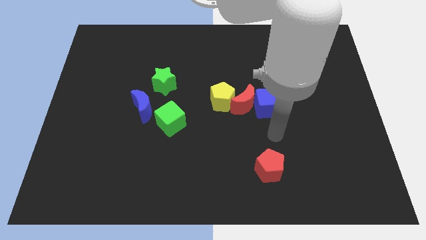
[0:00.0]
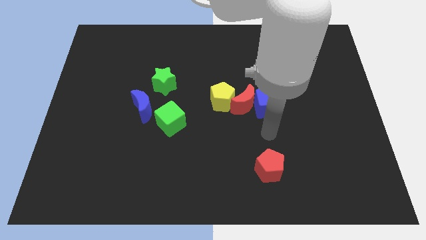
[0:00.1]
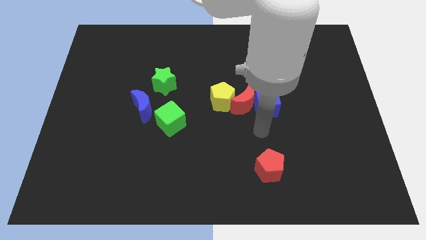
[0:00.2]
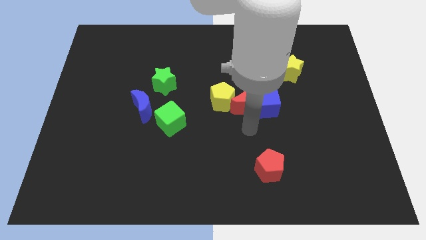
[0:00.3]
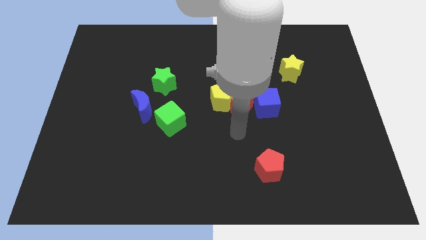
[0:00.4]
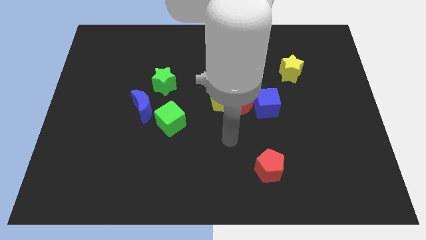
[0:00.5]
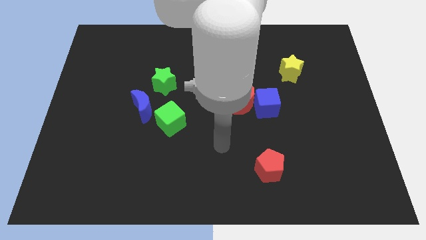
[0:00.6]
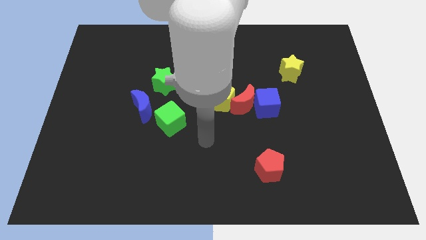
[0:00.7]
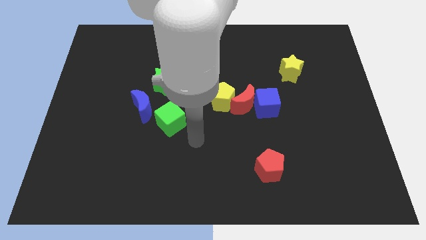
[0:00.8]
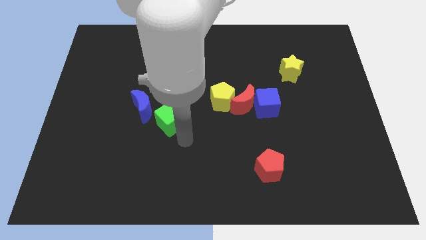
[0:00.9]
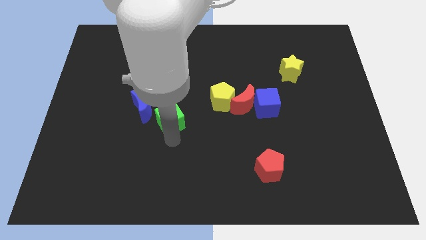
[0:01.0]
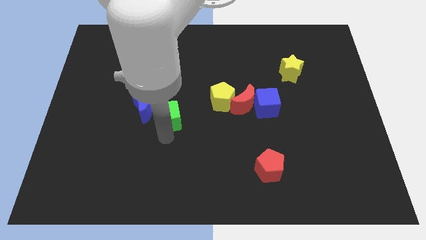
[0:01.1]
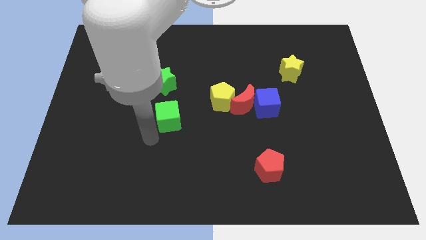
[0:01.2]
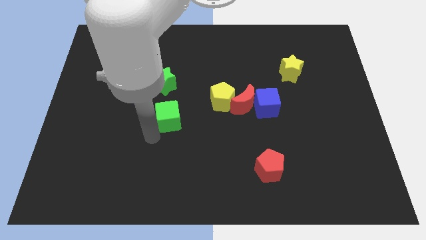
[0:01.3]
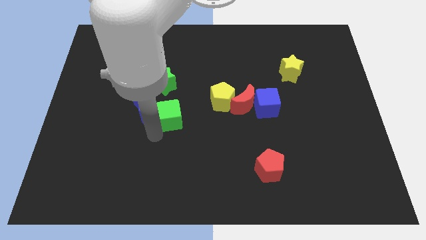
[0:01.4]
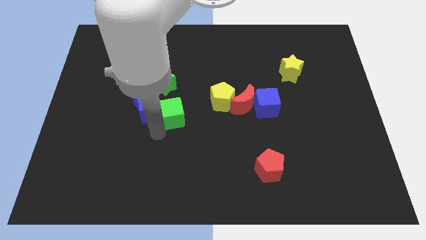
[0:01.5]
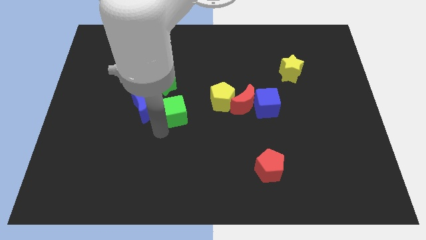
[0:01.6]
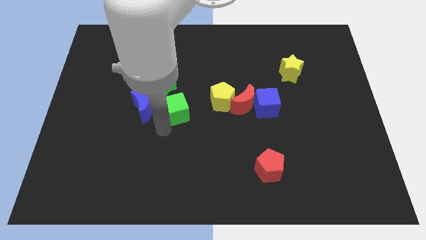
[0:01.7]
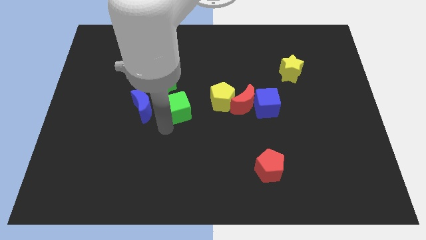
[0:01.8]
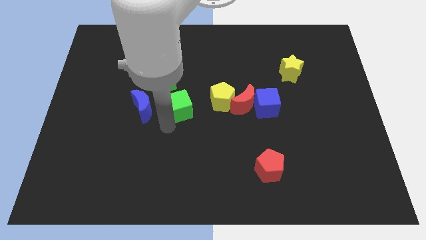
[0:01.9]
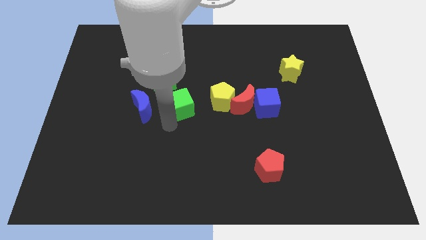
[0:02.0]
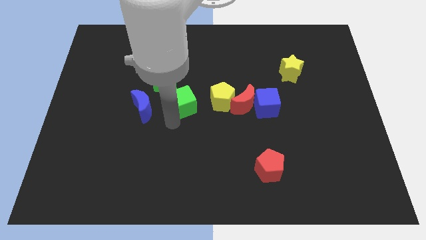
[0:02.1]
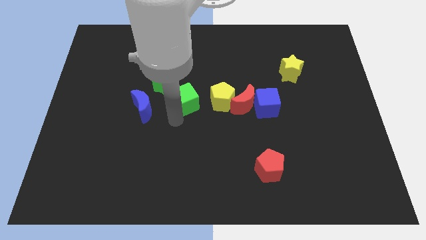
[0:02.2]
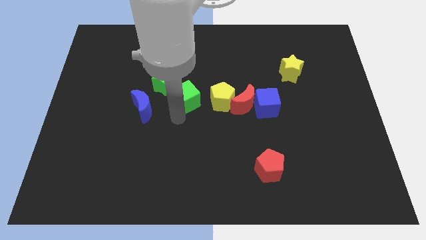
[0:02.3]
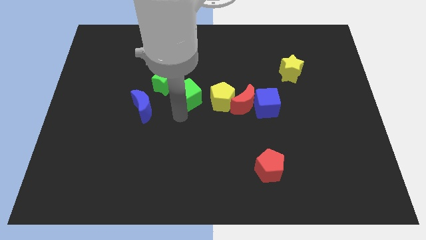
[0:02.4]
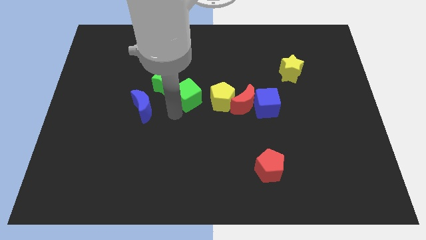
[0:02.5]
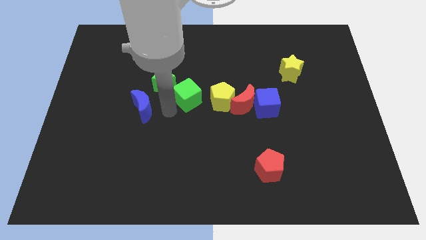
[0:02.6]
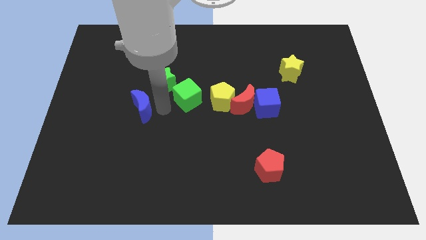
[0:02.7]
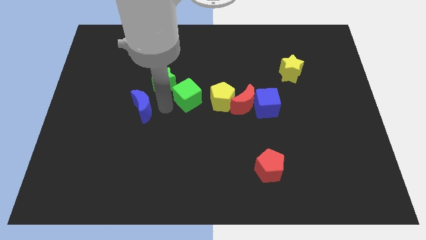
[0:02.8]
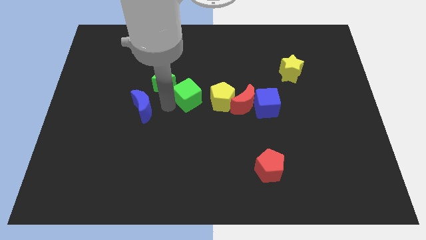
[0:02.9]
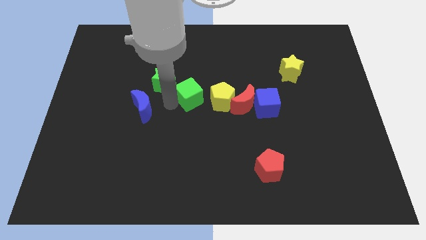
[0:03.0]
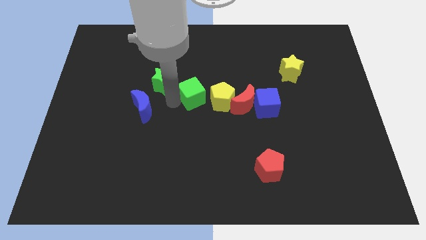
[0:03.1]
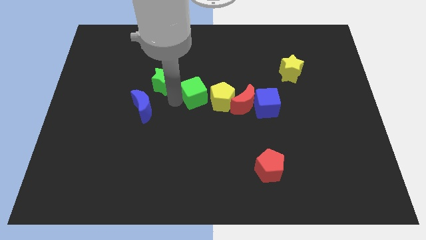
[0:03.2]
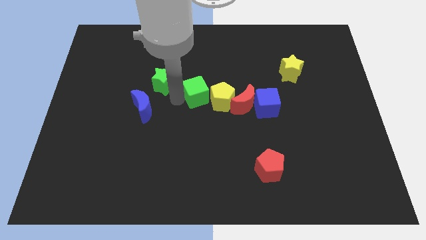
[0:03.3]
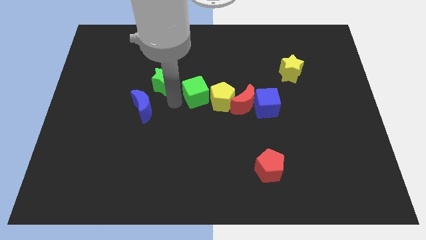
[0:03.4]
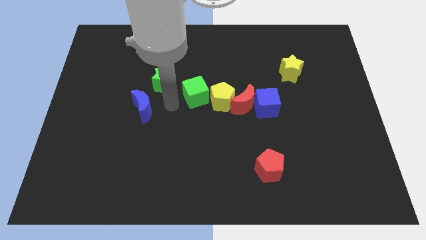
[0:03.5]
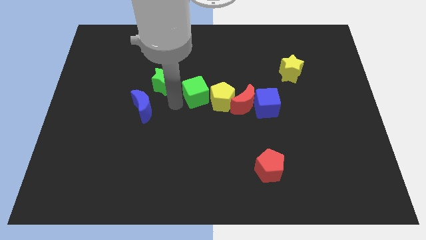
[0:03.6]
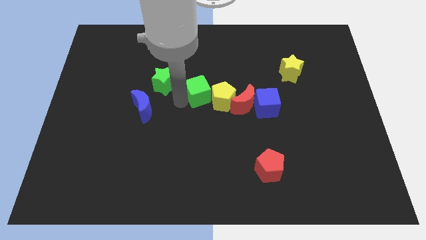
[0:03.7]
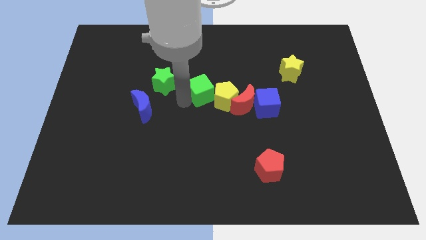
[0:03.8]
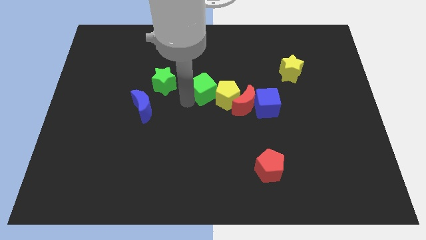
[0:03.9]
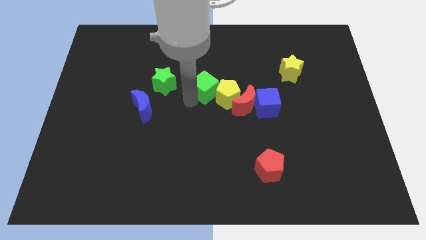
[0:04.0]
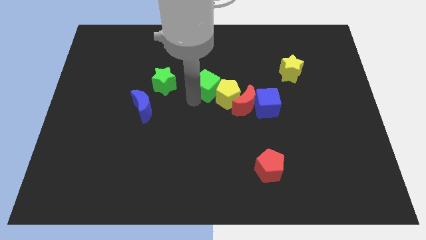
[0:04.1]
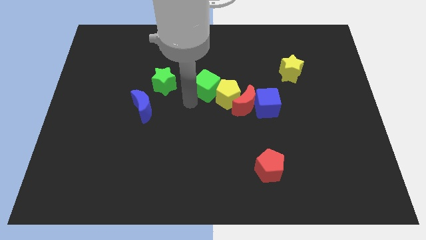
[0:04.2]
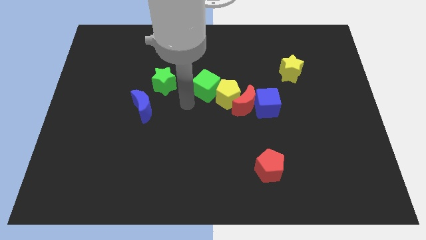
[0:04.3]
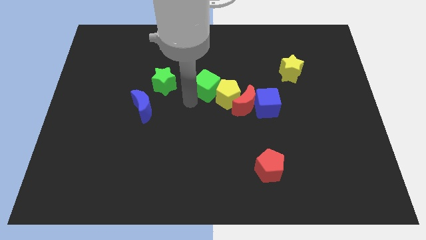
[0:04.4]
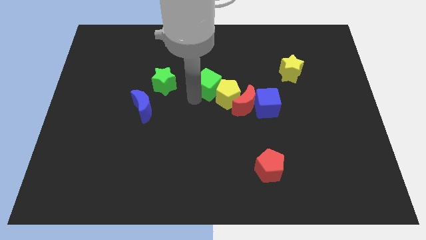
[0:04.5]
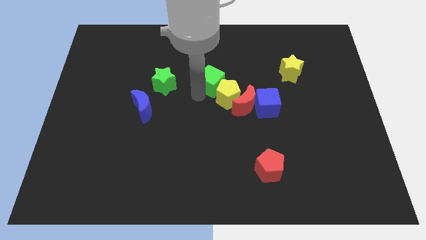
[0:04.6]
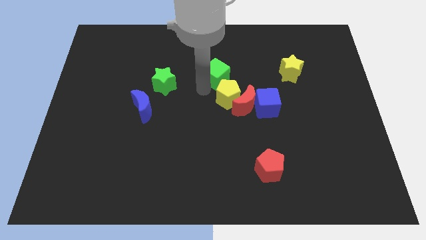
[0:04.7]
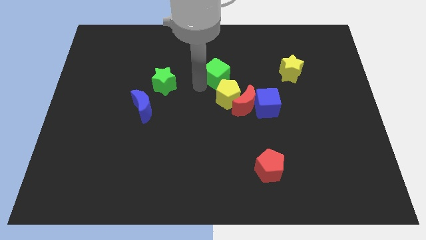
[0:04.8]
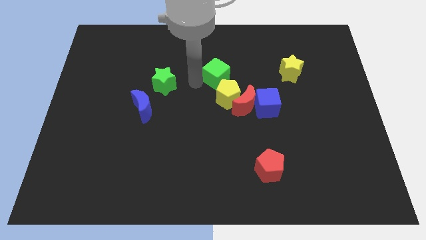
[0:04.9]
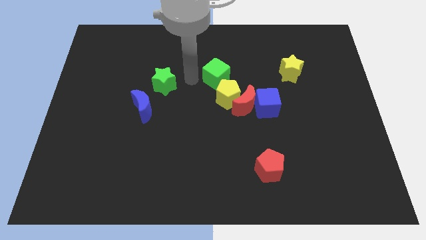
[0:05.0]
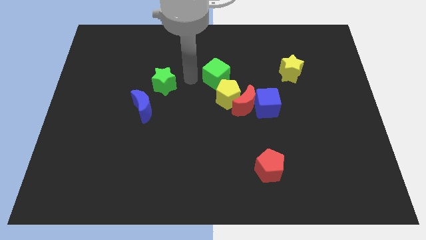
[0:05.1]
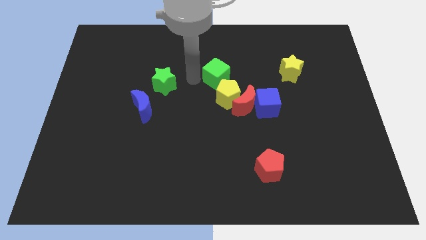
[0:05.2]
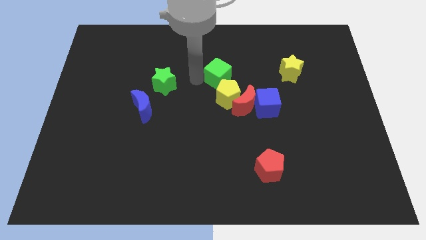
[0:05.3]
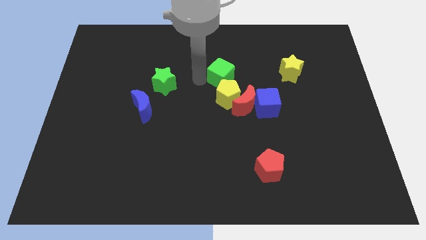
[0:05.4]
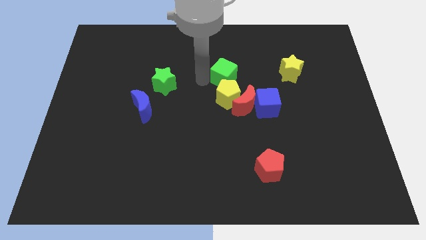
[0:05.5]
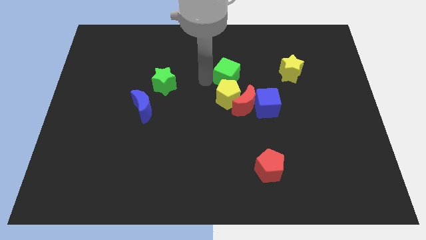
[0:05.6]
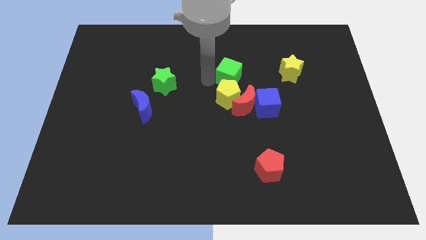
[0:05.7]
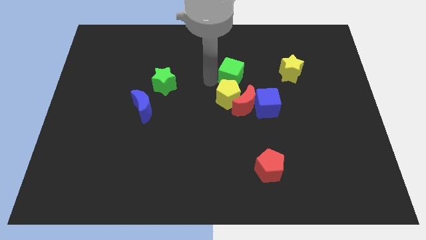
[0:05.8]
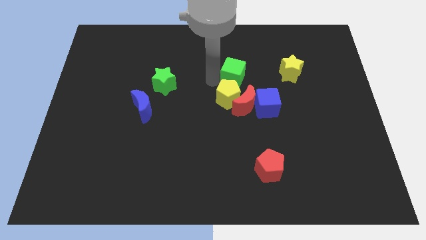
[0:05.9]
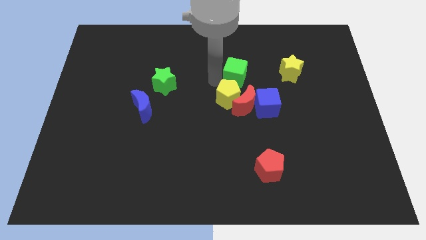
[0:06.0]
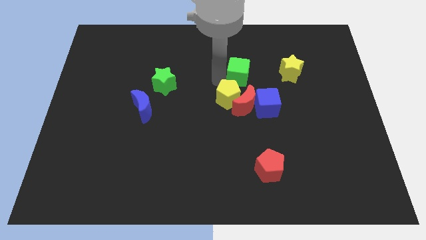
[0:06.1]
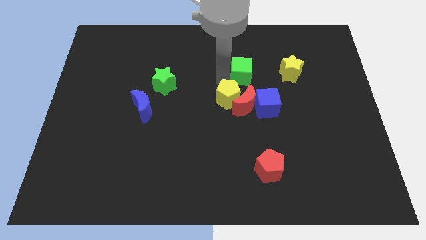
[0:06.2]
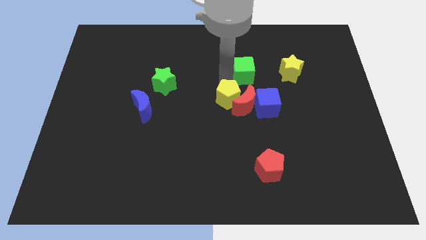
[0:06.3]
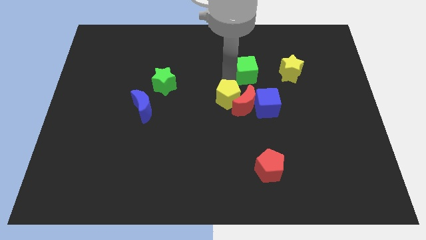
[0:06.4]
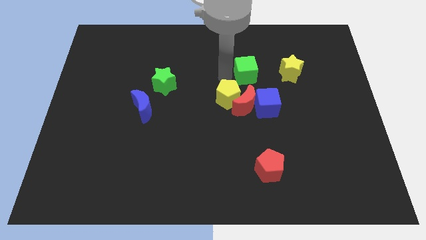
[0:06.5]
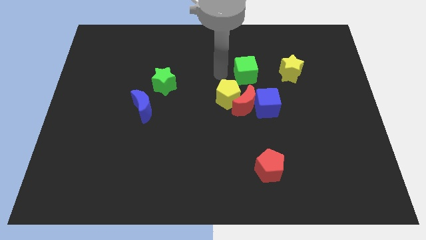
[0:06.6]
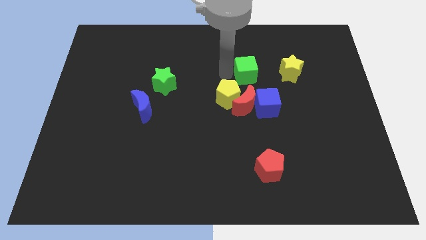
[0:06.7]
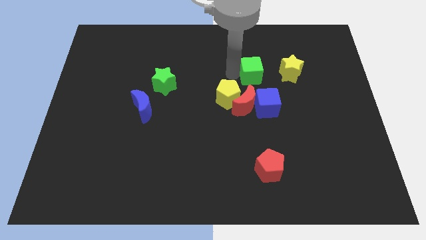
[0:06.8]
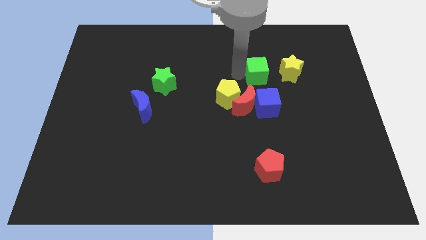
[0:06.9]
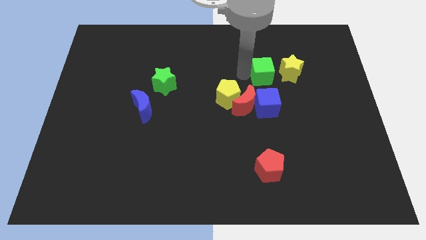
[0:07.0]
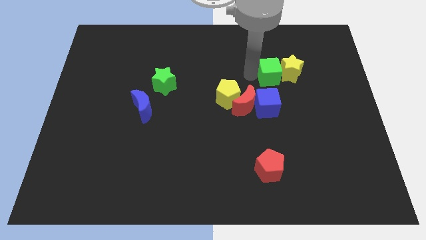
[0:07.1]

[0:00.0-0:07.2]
slide the green cube towards the yellow star
